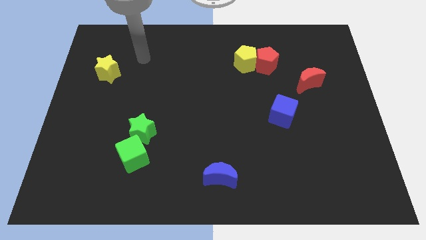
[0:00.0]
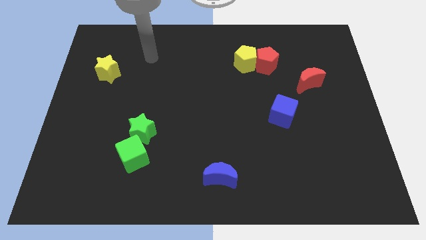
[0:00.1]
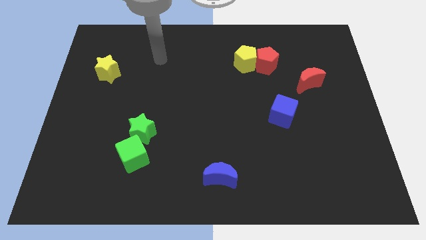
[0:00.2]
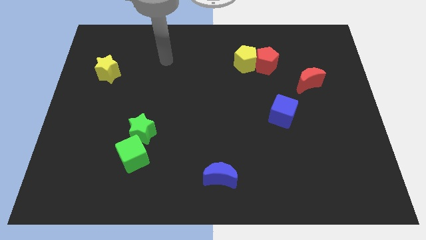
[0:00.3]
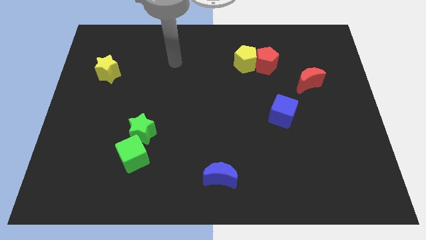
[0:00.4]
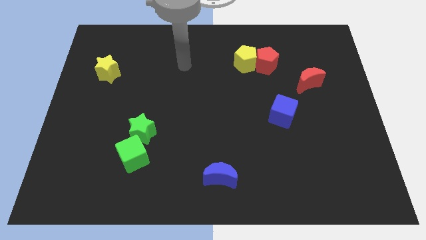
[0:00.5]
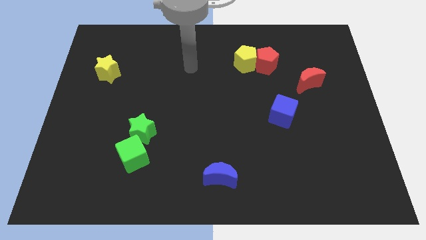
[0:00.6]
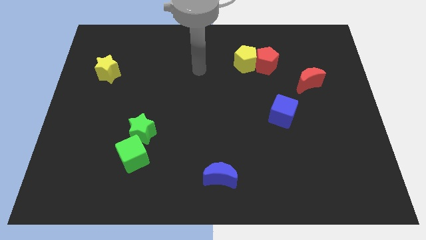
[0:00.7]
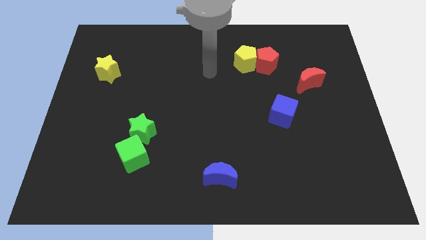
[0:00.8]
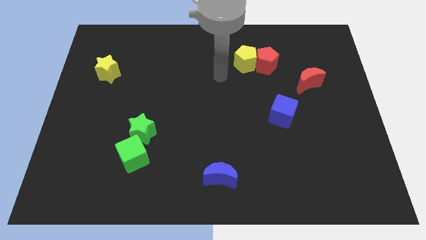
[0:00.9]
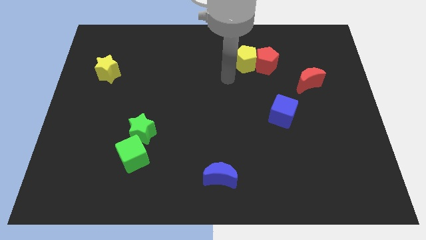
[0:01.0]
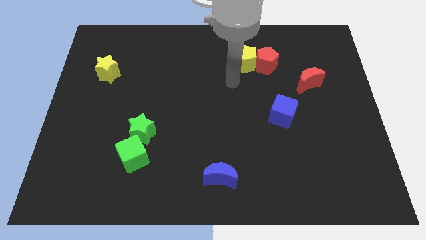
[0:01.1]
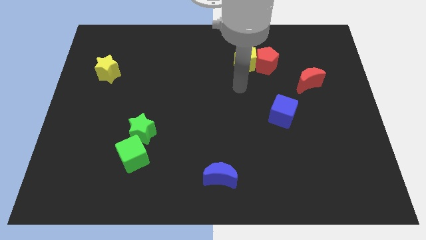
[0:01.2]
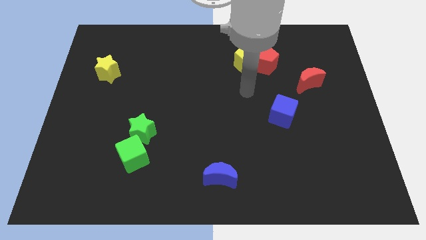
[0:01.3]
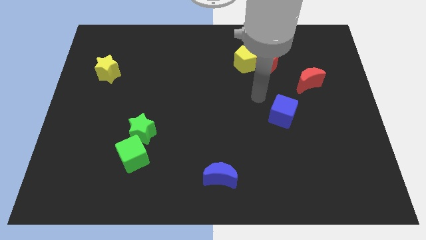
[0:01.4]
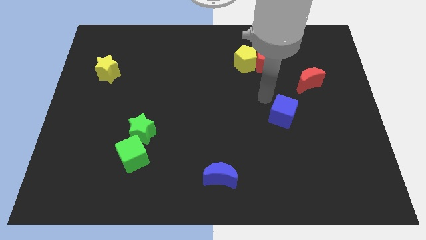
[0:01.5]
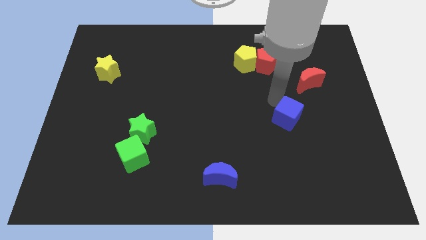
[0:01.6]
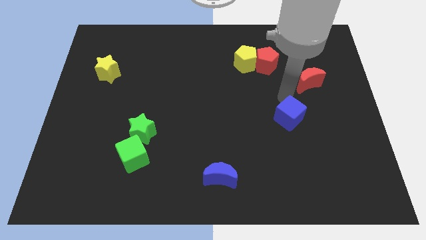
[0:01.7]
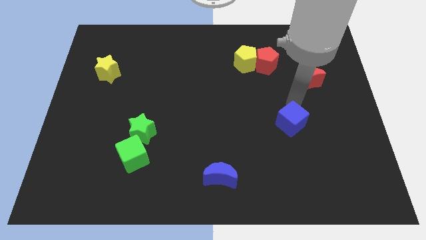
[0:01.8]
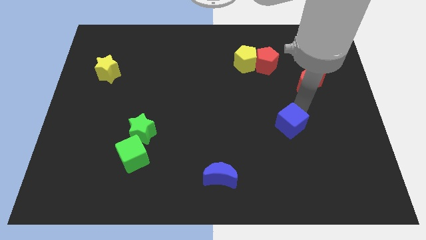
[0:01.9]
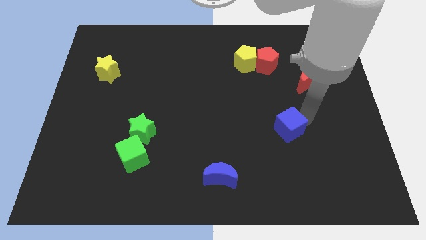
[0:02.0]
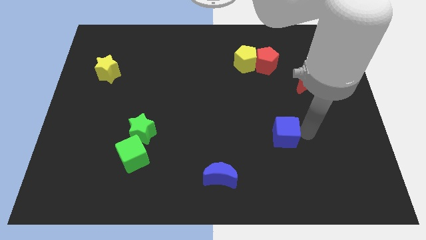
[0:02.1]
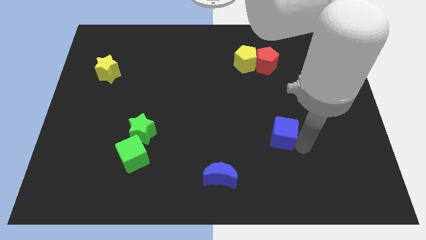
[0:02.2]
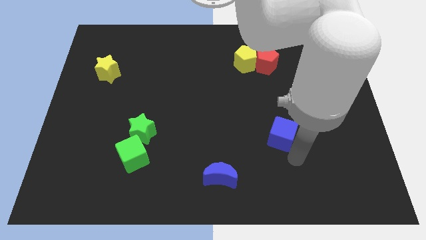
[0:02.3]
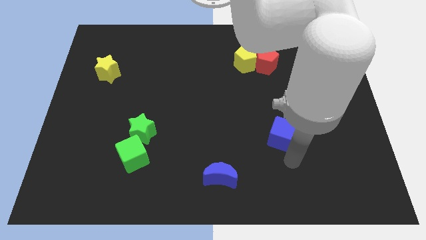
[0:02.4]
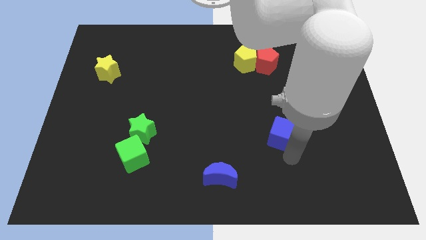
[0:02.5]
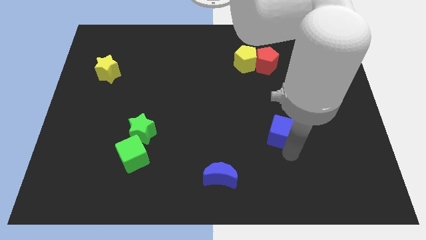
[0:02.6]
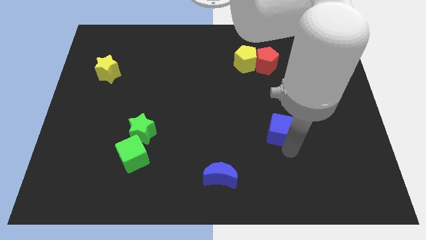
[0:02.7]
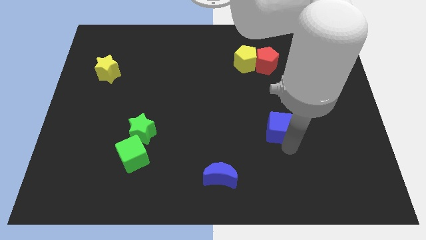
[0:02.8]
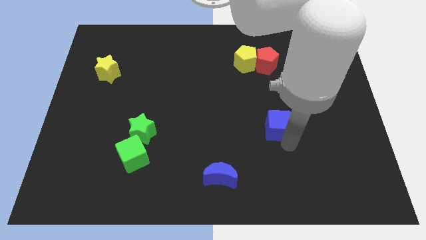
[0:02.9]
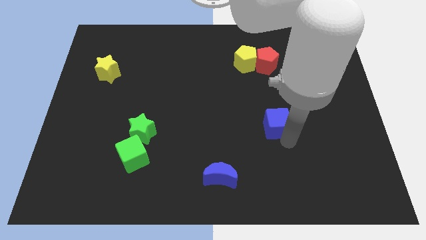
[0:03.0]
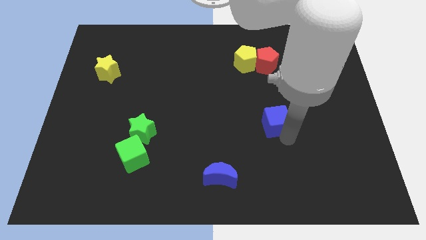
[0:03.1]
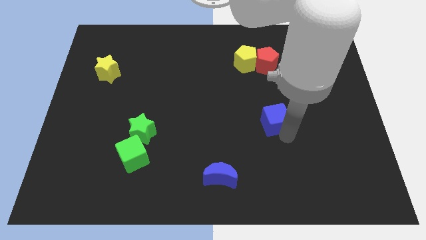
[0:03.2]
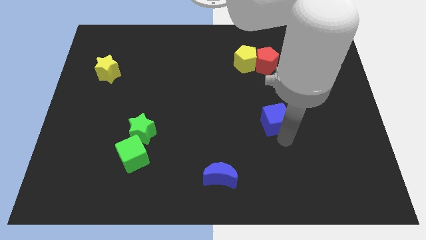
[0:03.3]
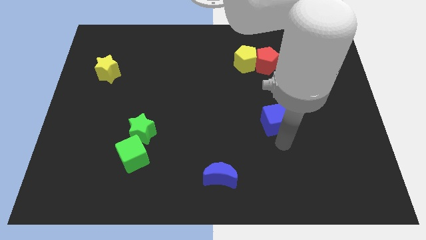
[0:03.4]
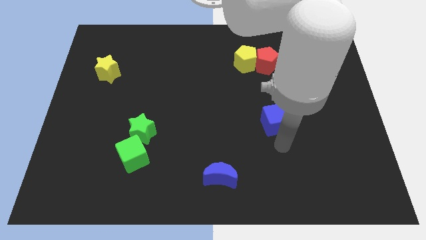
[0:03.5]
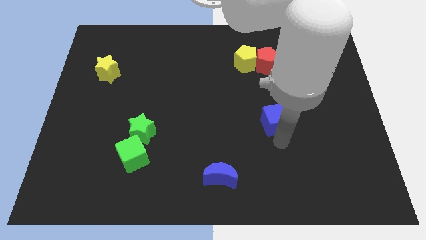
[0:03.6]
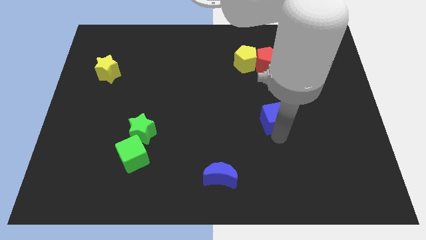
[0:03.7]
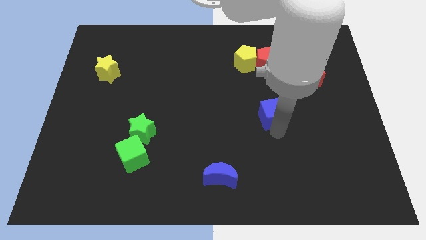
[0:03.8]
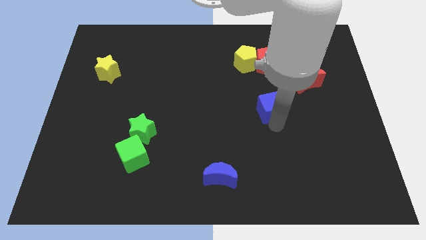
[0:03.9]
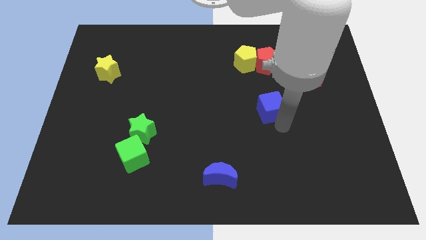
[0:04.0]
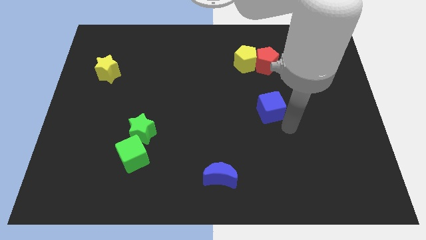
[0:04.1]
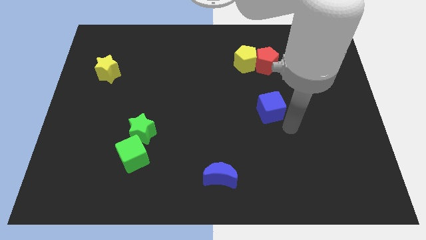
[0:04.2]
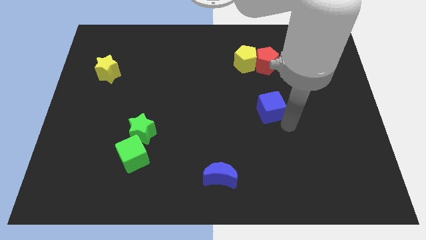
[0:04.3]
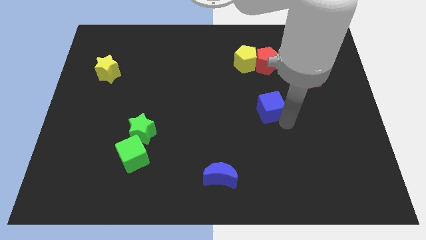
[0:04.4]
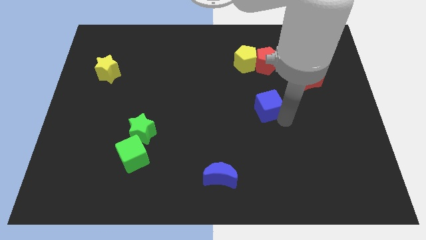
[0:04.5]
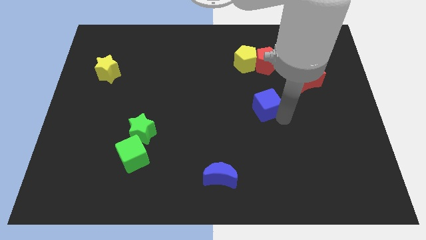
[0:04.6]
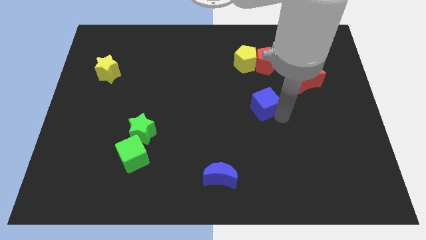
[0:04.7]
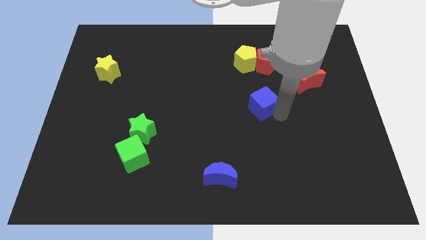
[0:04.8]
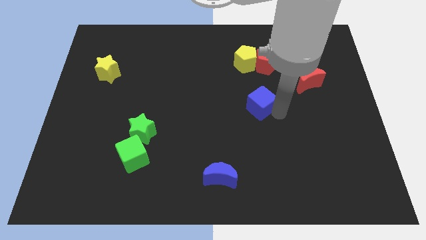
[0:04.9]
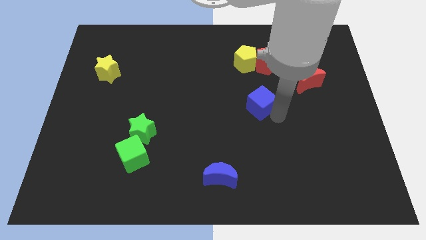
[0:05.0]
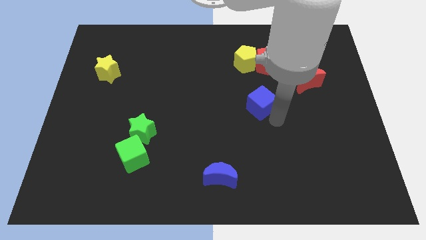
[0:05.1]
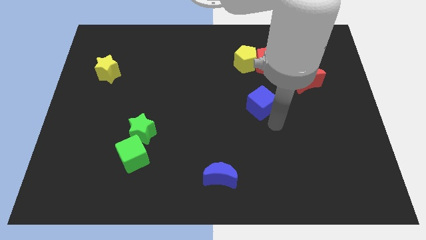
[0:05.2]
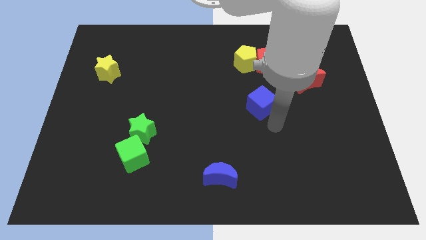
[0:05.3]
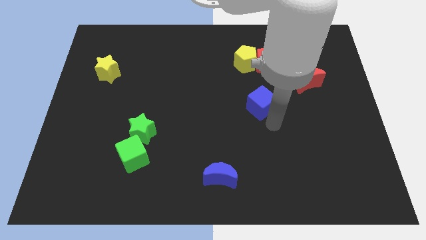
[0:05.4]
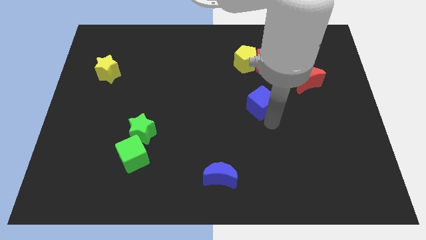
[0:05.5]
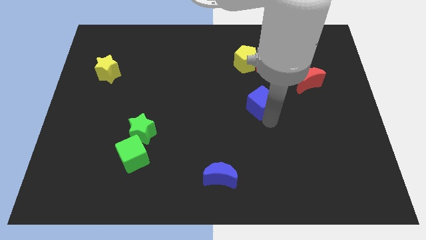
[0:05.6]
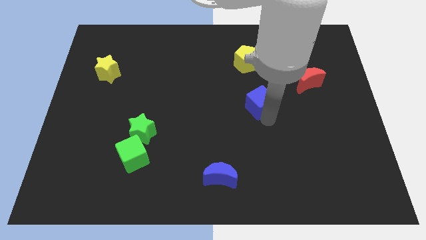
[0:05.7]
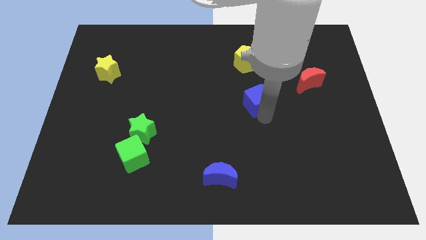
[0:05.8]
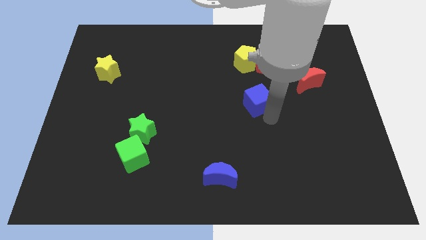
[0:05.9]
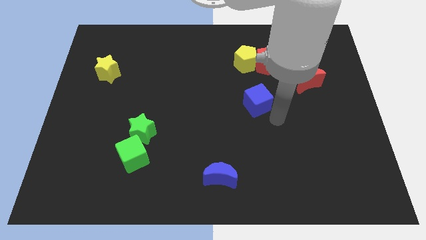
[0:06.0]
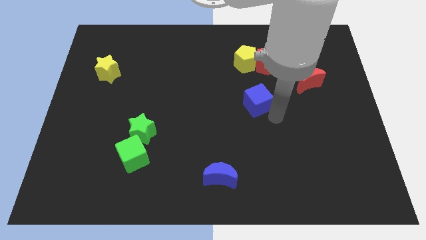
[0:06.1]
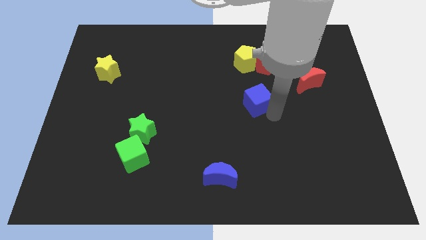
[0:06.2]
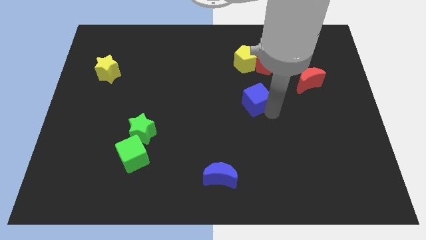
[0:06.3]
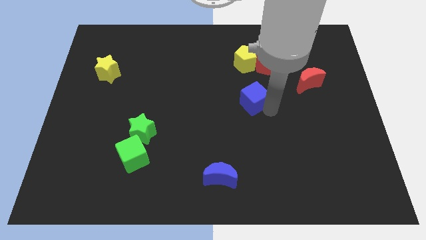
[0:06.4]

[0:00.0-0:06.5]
slide the blue cube up and then to the left slightly

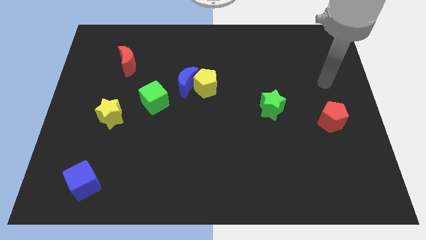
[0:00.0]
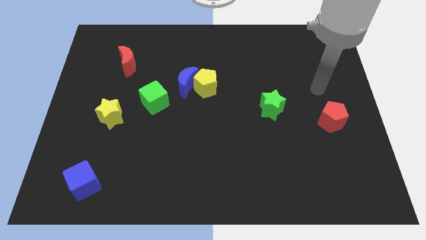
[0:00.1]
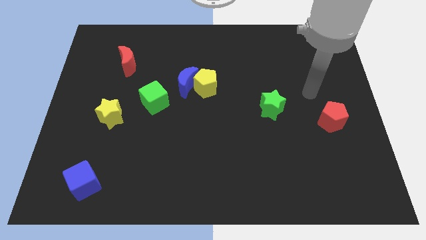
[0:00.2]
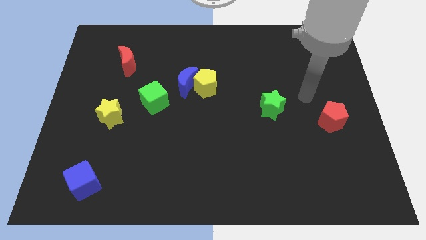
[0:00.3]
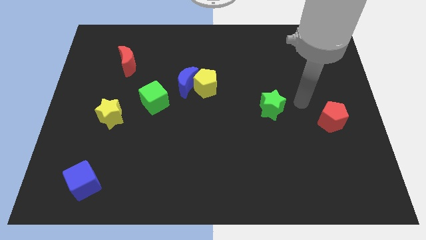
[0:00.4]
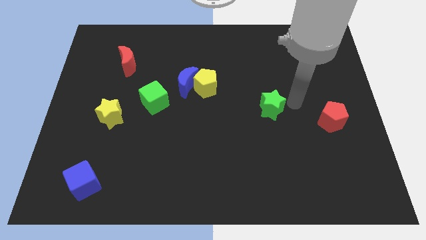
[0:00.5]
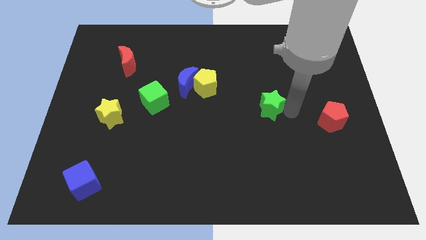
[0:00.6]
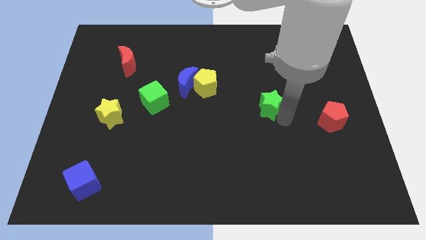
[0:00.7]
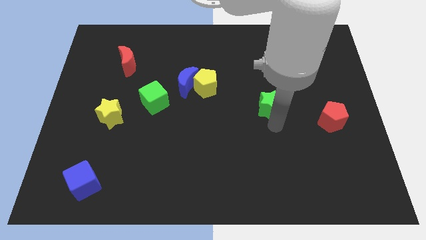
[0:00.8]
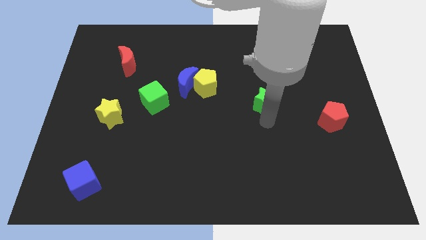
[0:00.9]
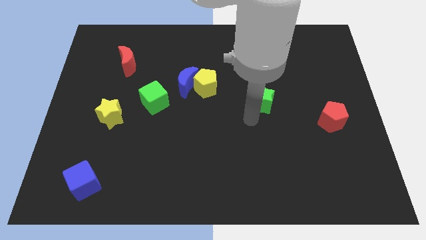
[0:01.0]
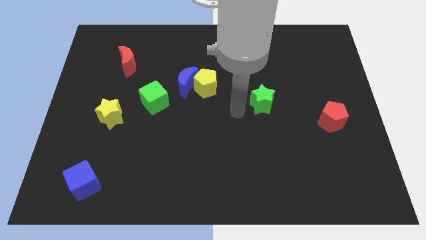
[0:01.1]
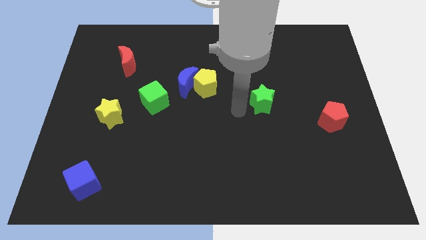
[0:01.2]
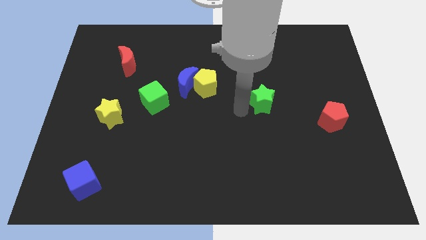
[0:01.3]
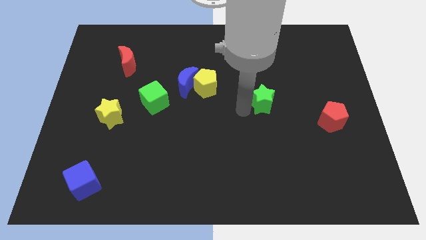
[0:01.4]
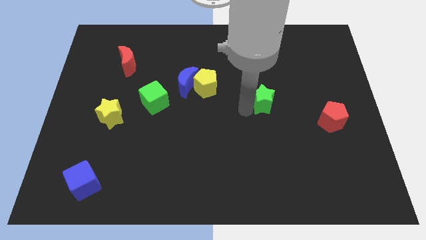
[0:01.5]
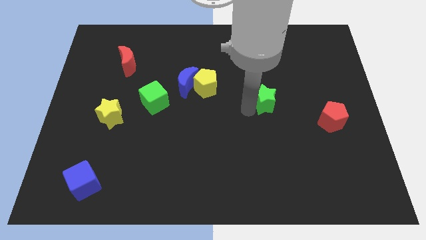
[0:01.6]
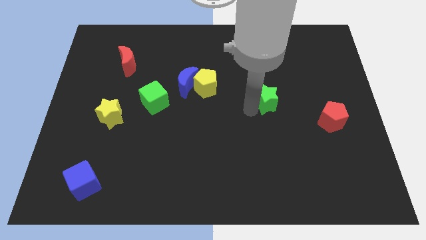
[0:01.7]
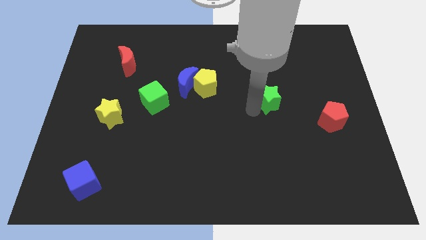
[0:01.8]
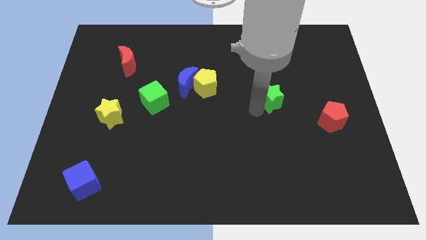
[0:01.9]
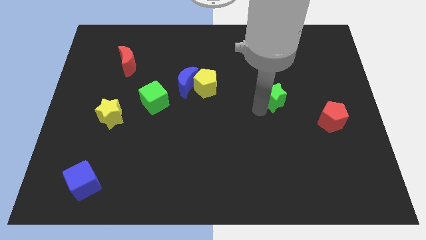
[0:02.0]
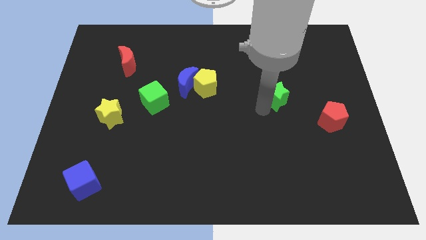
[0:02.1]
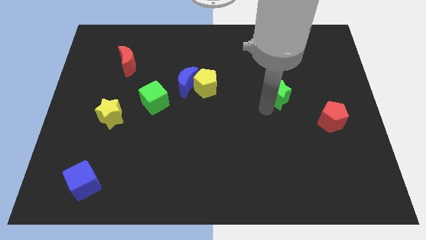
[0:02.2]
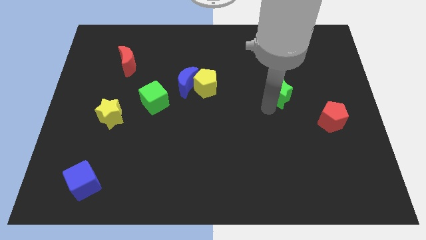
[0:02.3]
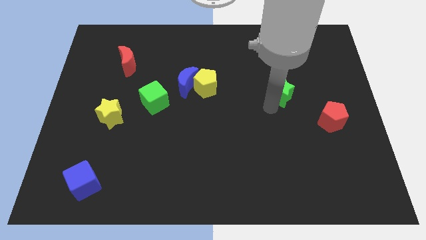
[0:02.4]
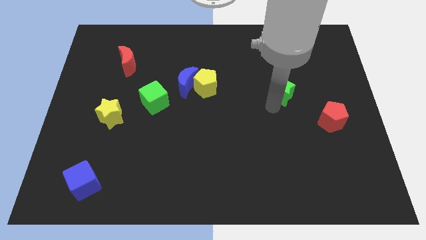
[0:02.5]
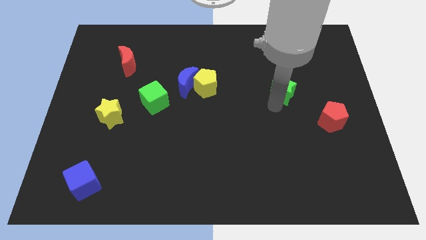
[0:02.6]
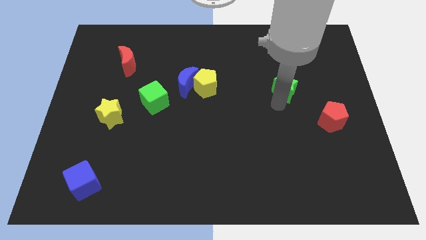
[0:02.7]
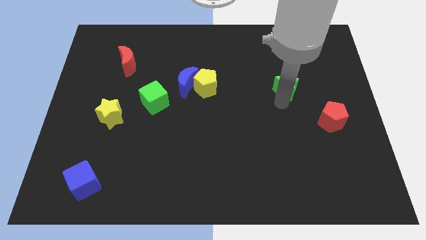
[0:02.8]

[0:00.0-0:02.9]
slightly slide the green star upwards and then right
